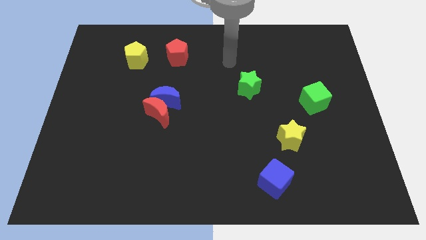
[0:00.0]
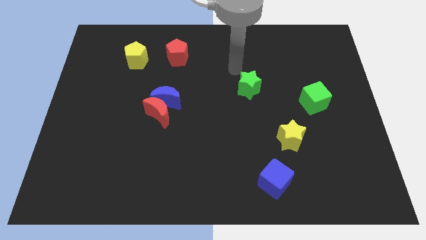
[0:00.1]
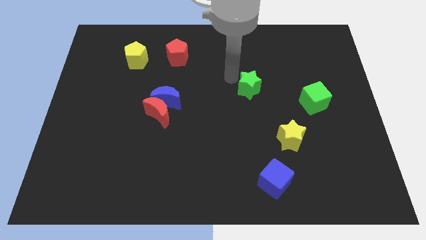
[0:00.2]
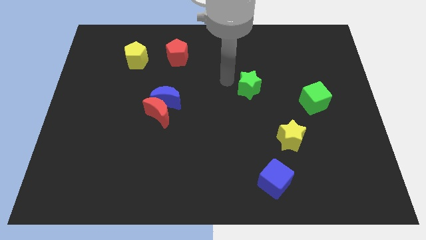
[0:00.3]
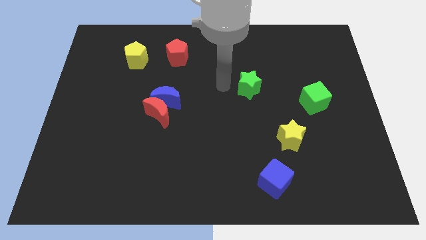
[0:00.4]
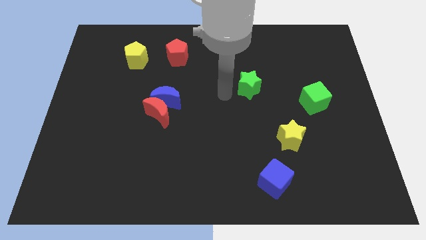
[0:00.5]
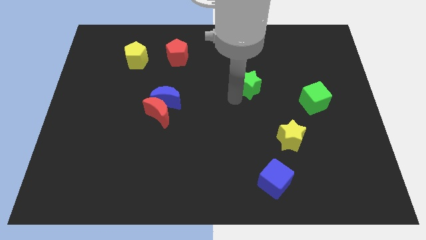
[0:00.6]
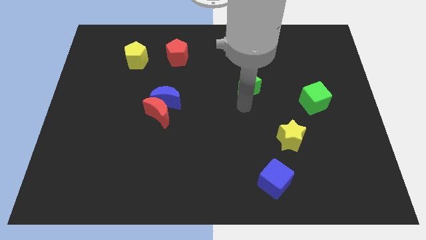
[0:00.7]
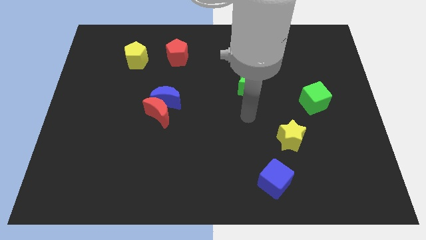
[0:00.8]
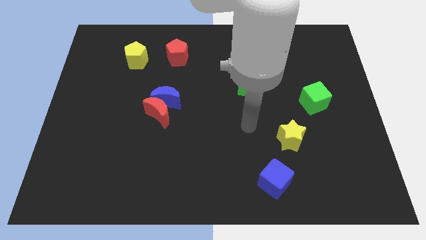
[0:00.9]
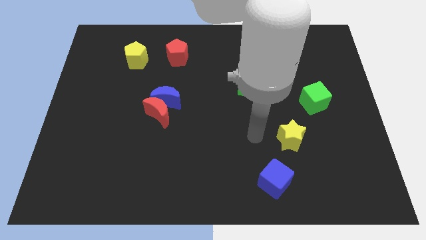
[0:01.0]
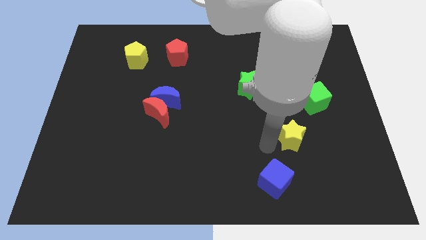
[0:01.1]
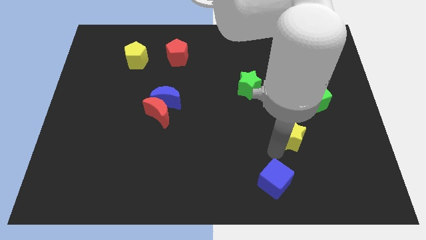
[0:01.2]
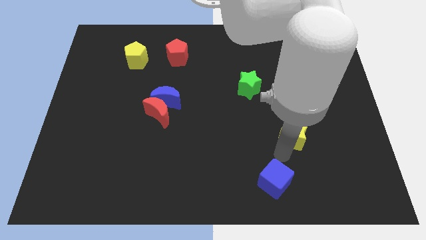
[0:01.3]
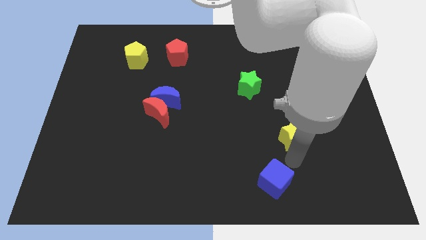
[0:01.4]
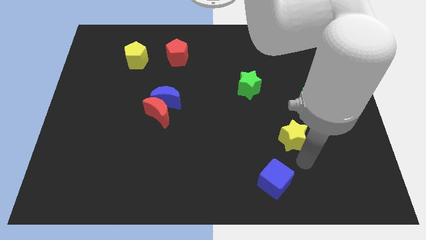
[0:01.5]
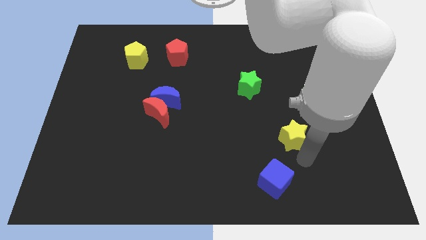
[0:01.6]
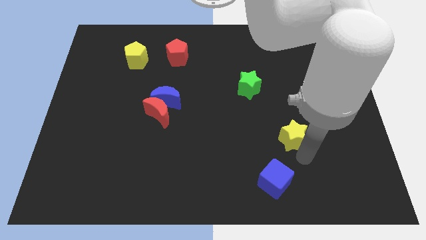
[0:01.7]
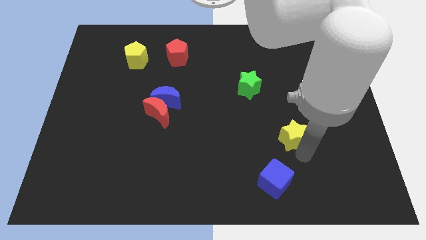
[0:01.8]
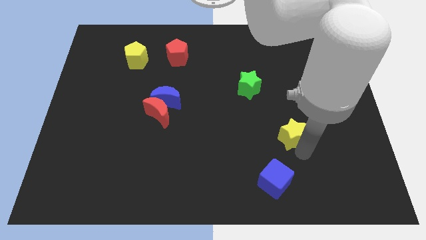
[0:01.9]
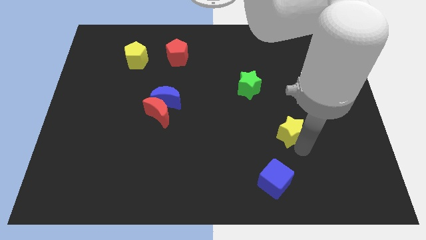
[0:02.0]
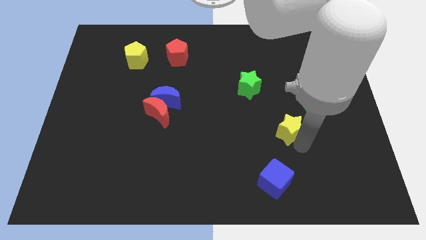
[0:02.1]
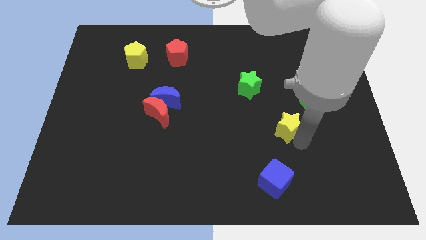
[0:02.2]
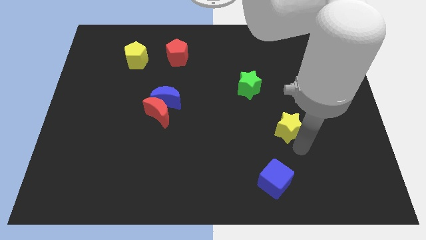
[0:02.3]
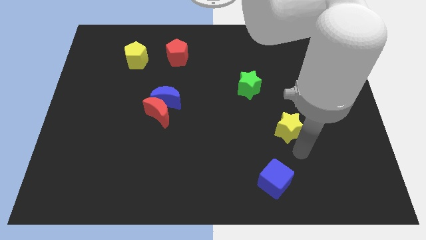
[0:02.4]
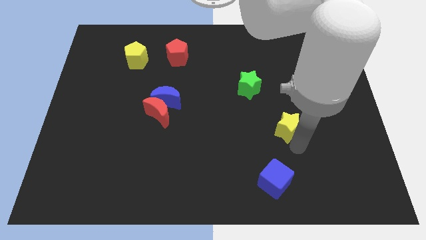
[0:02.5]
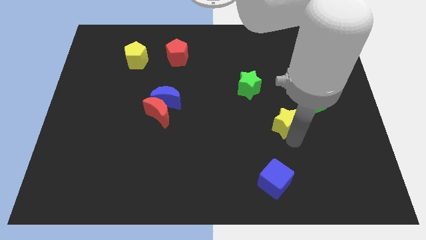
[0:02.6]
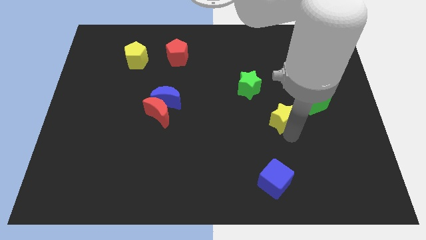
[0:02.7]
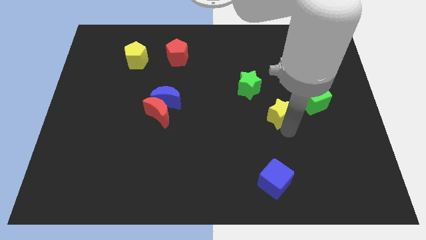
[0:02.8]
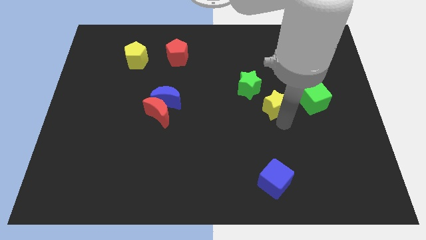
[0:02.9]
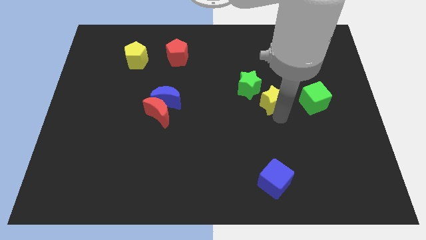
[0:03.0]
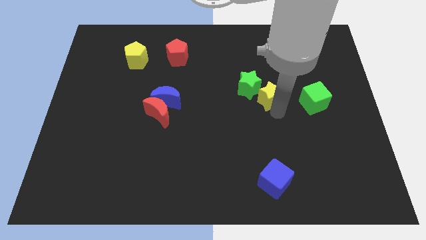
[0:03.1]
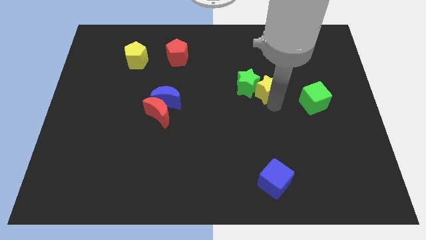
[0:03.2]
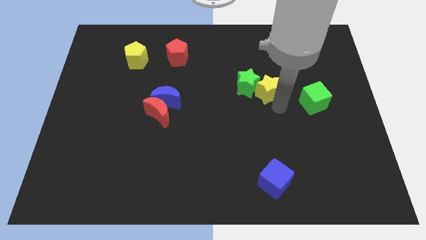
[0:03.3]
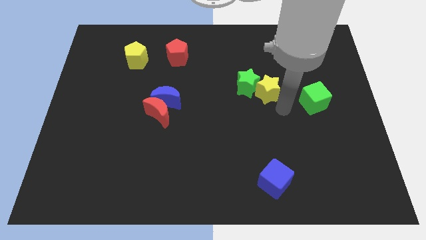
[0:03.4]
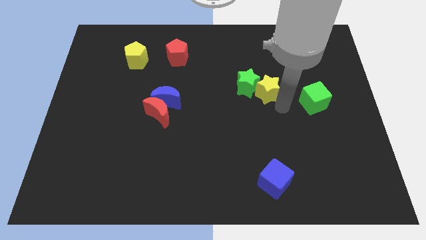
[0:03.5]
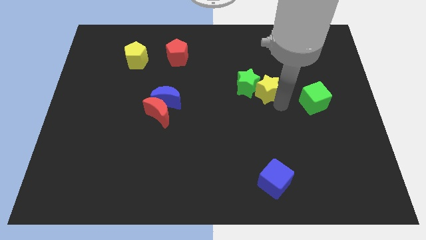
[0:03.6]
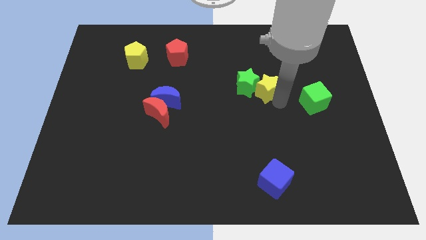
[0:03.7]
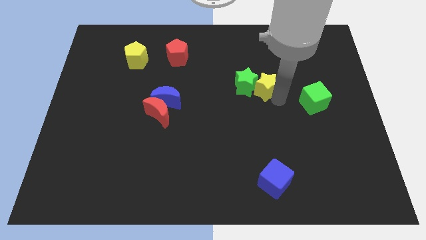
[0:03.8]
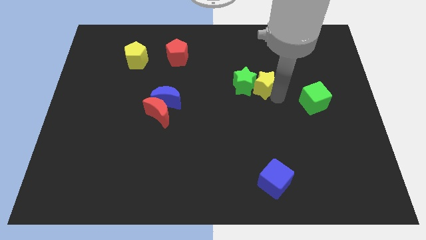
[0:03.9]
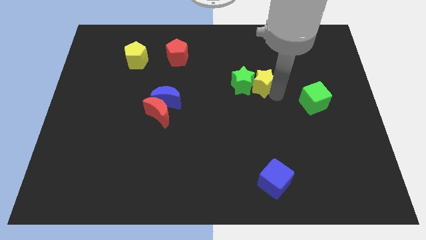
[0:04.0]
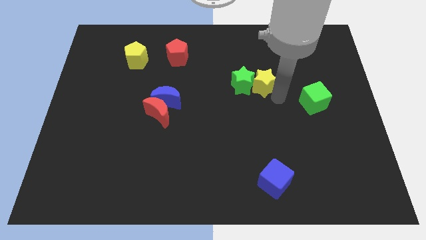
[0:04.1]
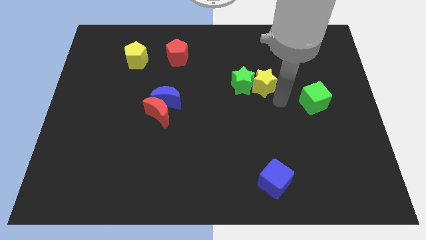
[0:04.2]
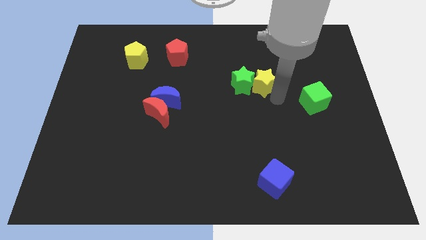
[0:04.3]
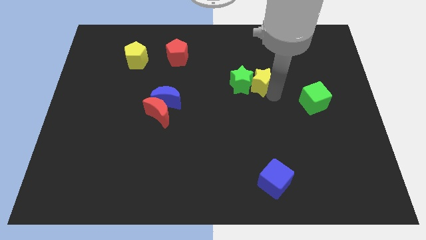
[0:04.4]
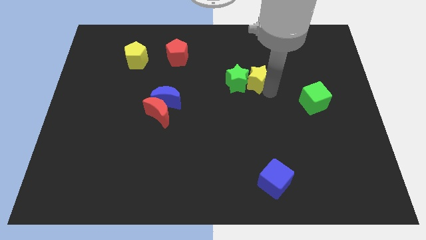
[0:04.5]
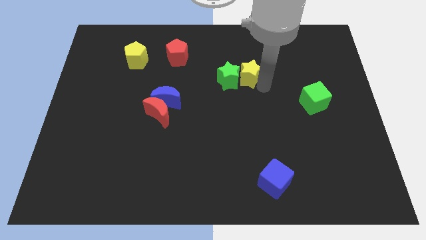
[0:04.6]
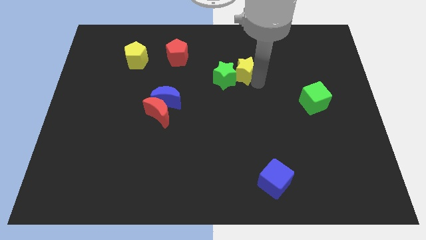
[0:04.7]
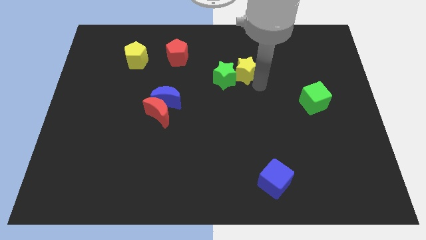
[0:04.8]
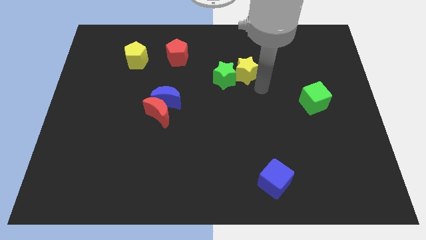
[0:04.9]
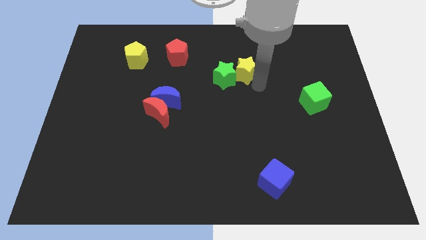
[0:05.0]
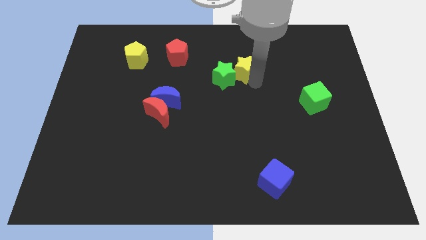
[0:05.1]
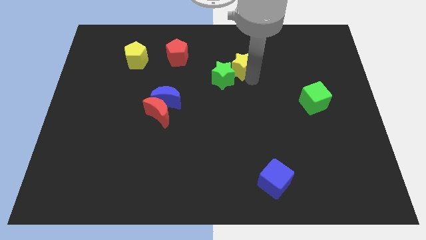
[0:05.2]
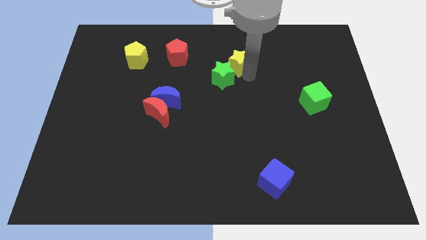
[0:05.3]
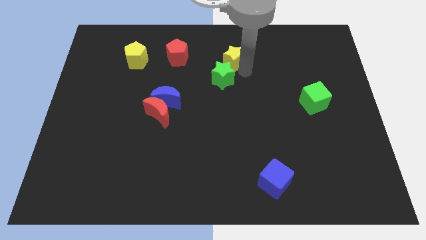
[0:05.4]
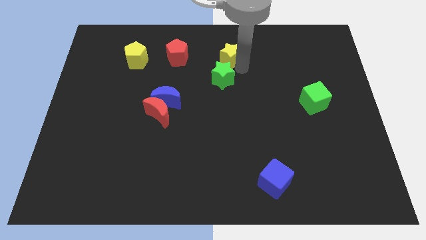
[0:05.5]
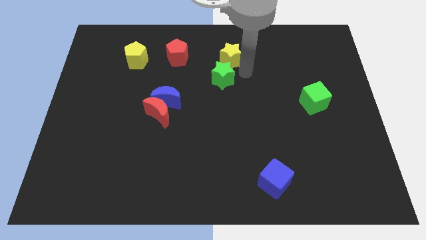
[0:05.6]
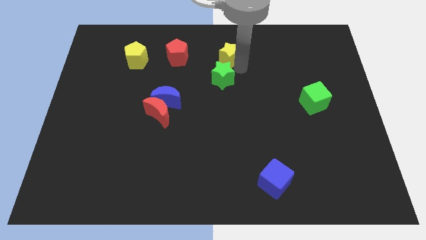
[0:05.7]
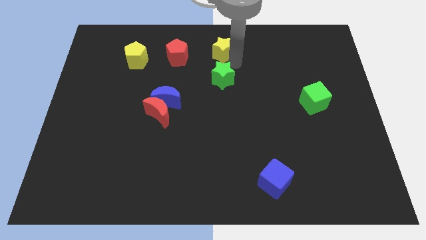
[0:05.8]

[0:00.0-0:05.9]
move the yellow star to the top side
